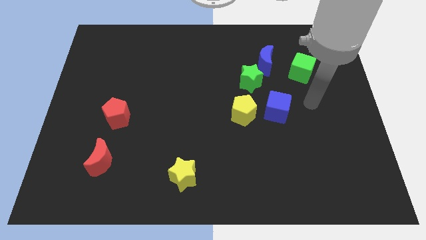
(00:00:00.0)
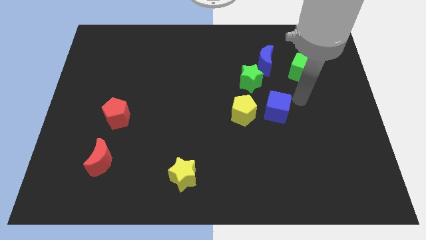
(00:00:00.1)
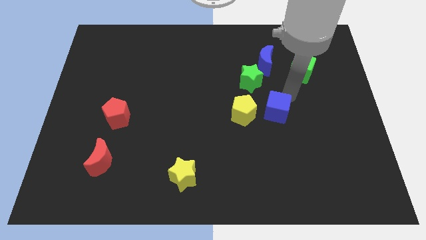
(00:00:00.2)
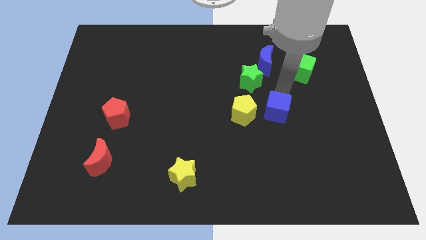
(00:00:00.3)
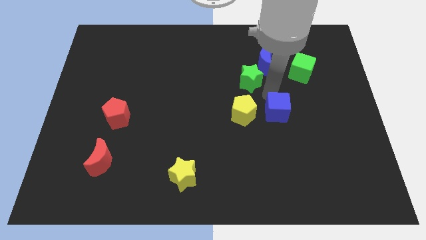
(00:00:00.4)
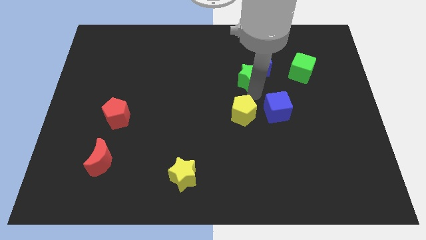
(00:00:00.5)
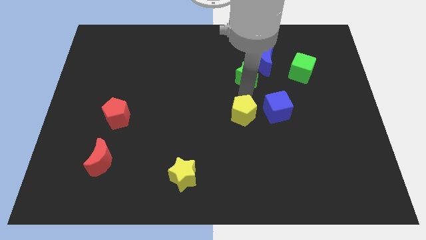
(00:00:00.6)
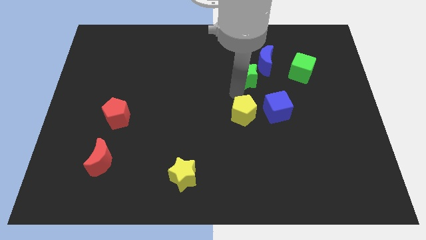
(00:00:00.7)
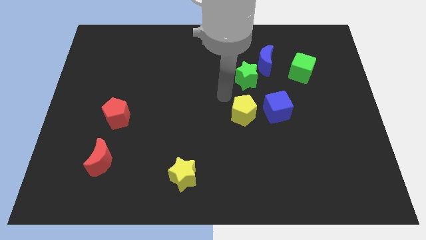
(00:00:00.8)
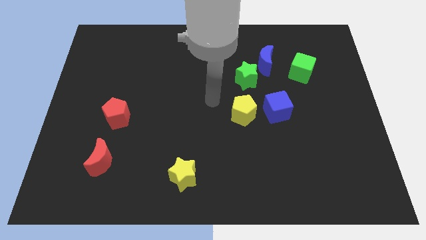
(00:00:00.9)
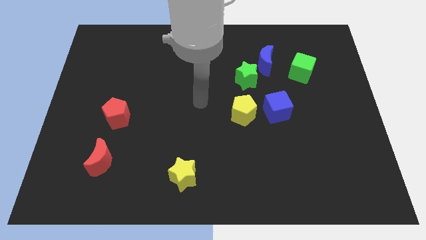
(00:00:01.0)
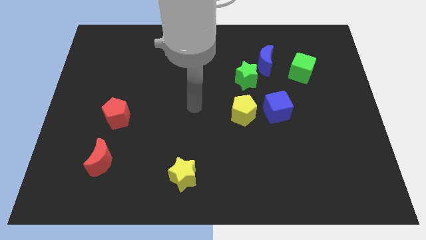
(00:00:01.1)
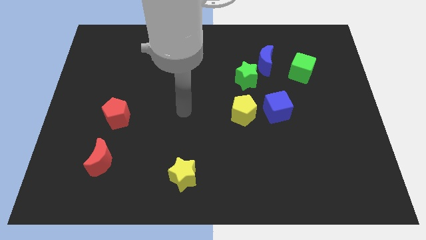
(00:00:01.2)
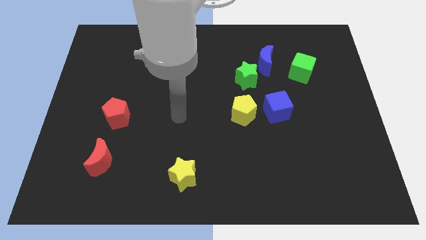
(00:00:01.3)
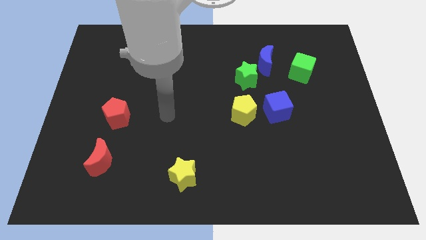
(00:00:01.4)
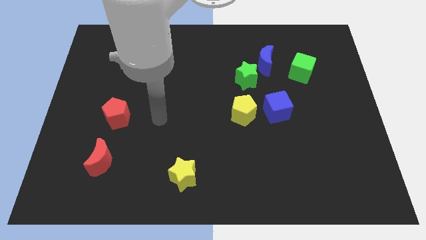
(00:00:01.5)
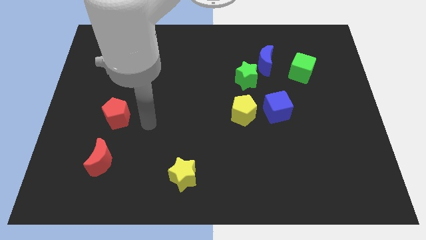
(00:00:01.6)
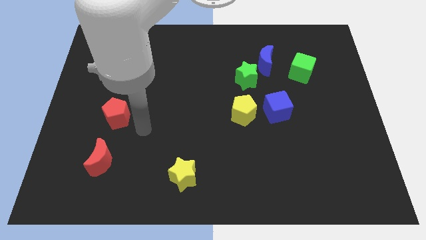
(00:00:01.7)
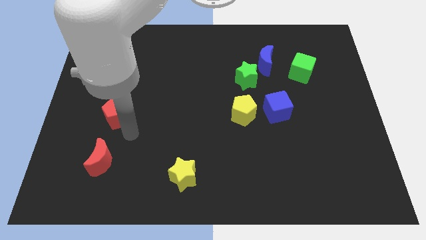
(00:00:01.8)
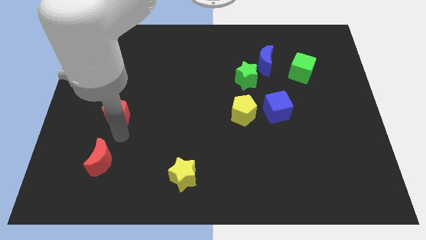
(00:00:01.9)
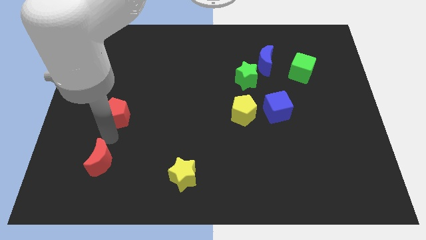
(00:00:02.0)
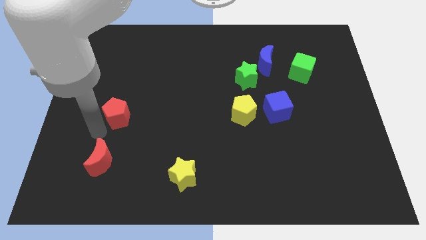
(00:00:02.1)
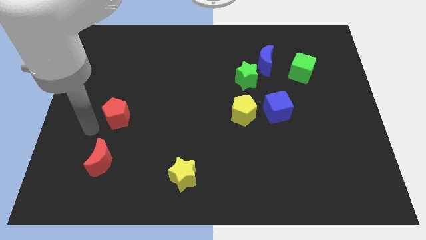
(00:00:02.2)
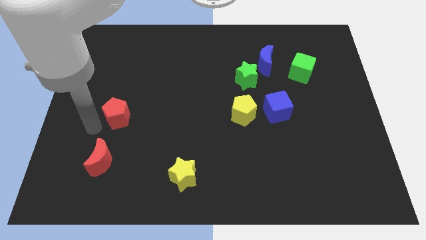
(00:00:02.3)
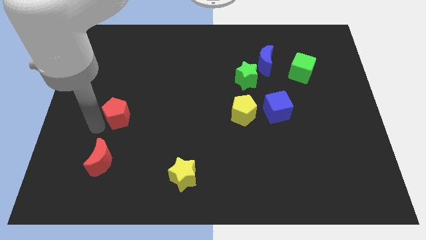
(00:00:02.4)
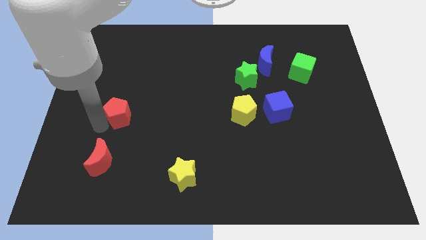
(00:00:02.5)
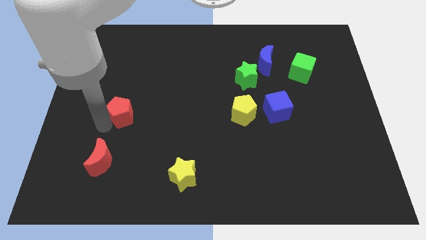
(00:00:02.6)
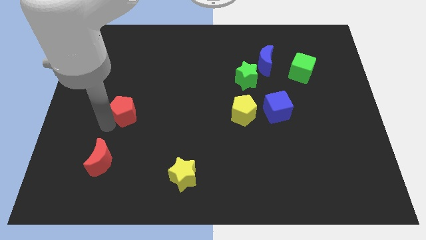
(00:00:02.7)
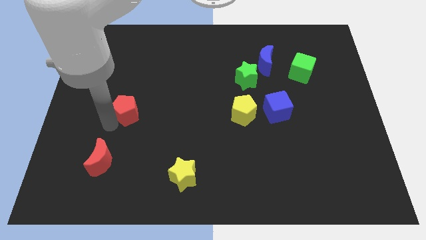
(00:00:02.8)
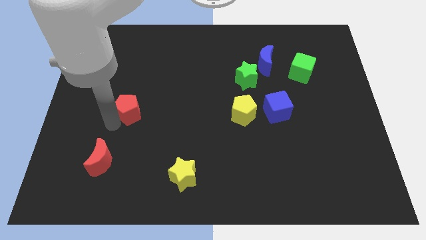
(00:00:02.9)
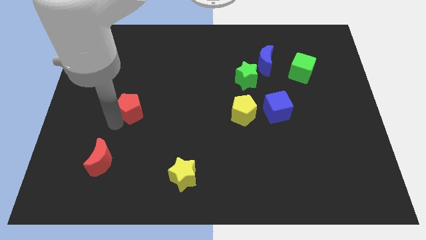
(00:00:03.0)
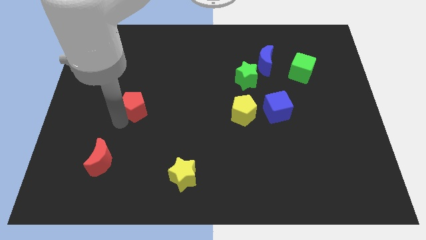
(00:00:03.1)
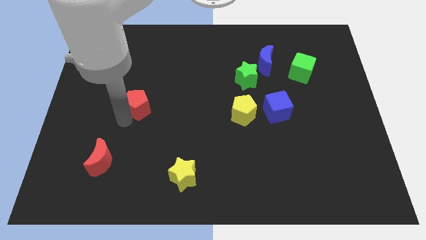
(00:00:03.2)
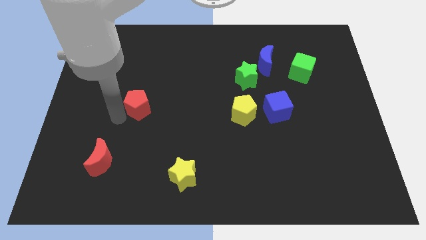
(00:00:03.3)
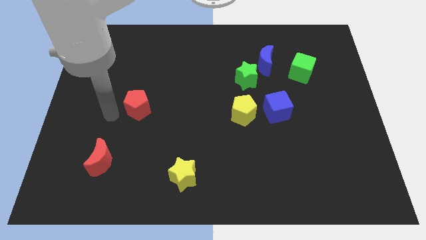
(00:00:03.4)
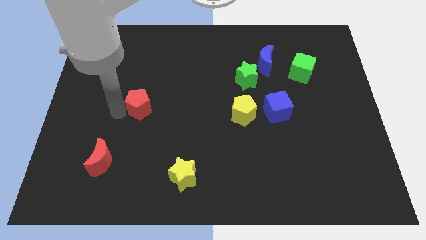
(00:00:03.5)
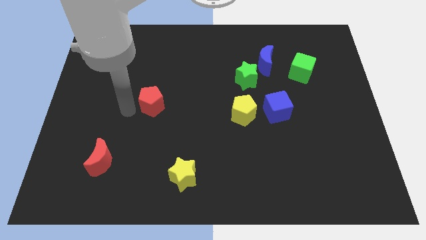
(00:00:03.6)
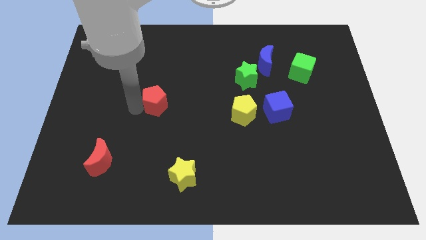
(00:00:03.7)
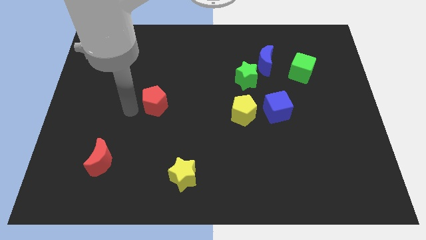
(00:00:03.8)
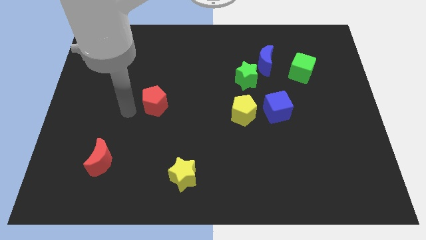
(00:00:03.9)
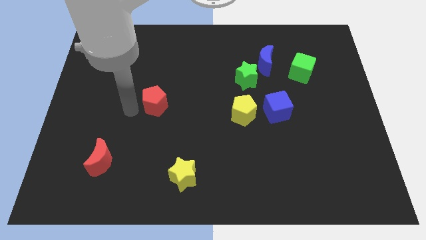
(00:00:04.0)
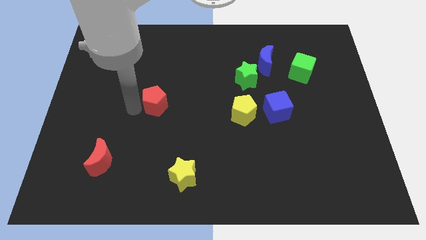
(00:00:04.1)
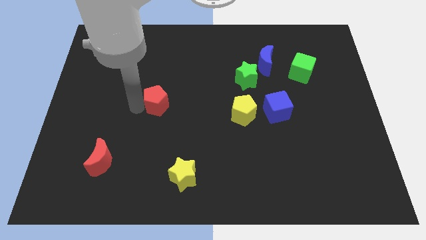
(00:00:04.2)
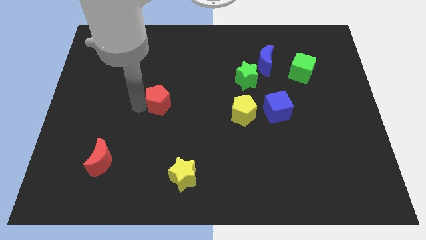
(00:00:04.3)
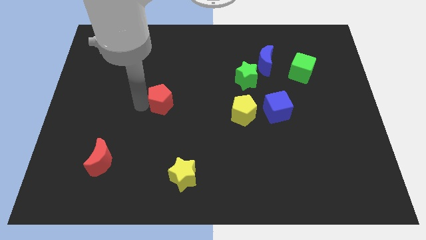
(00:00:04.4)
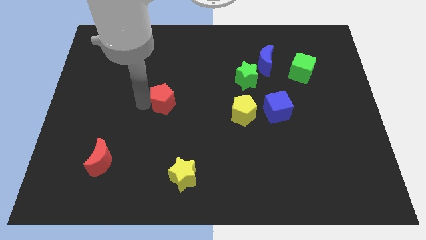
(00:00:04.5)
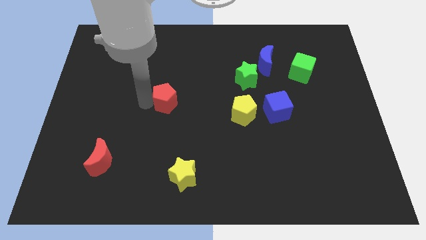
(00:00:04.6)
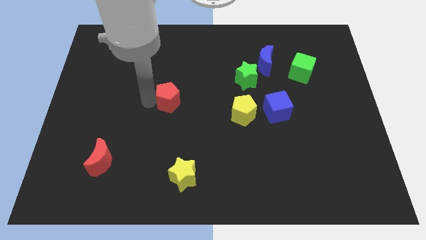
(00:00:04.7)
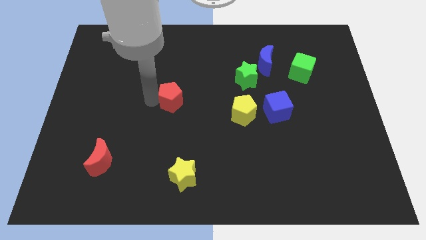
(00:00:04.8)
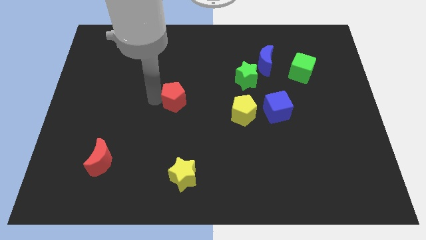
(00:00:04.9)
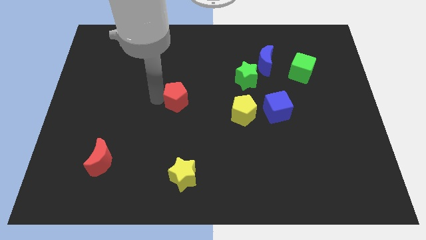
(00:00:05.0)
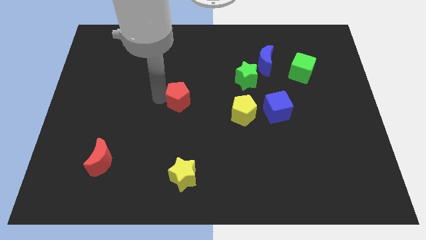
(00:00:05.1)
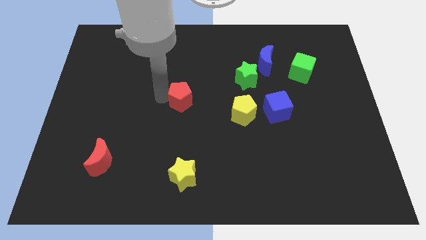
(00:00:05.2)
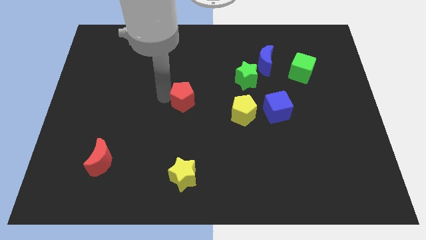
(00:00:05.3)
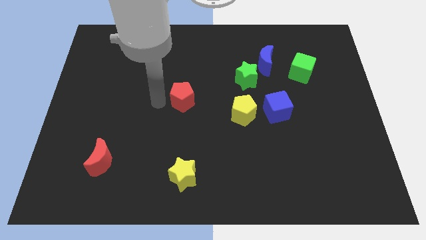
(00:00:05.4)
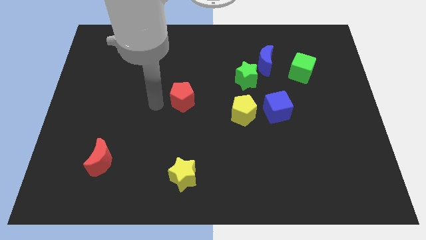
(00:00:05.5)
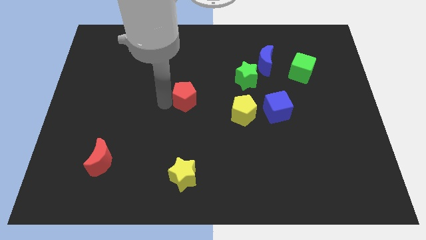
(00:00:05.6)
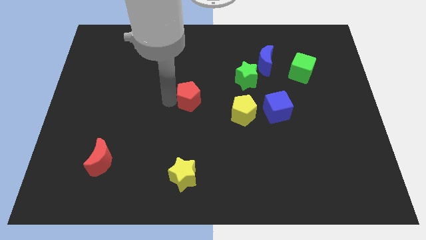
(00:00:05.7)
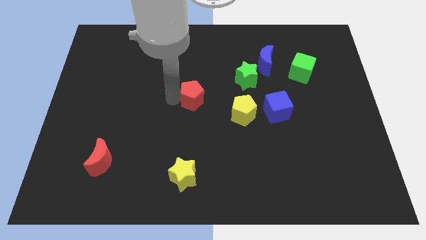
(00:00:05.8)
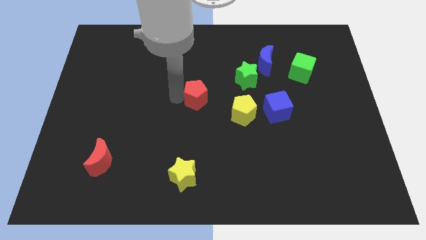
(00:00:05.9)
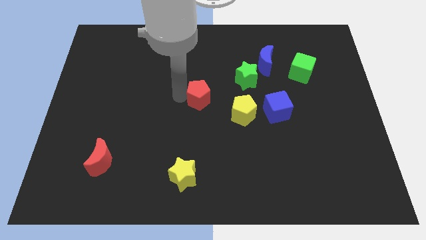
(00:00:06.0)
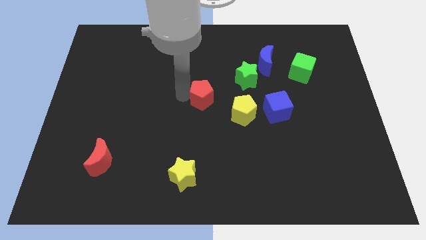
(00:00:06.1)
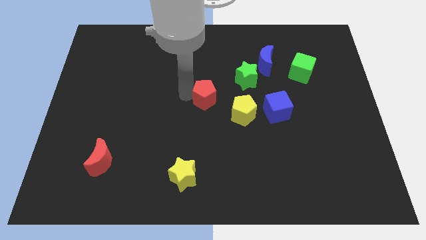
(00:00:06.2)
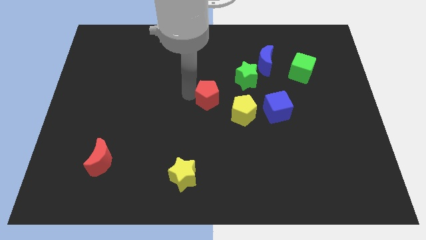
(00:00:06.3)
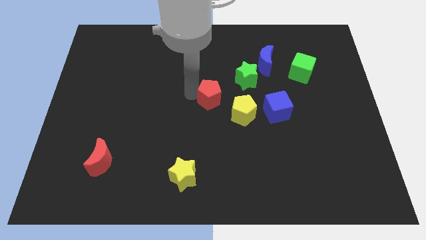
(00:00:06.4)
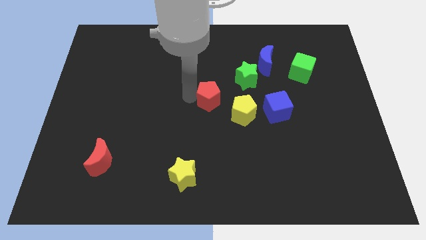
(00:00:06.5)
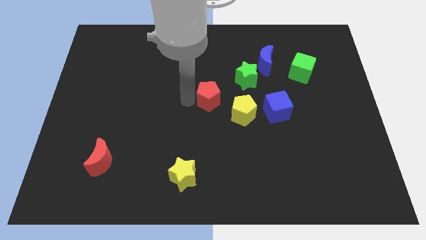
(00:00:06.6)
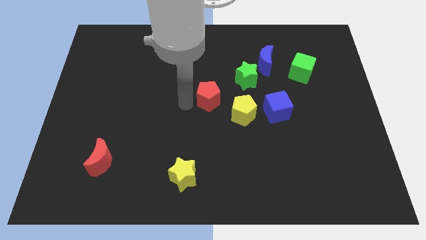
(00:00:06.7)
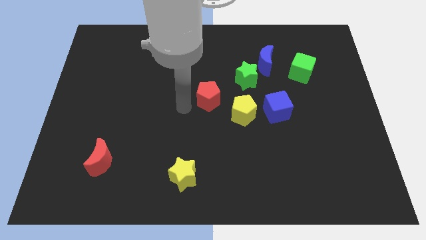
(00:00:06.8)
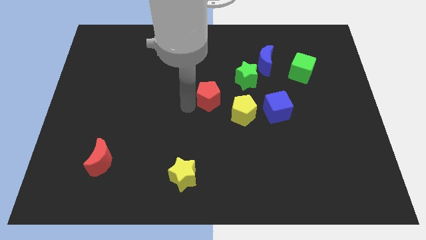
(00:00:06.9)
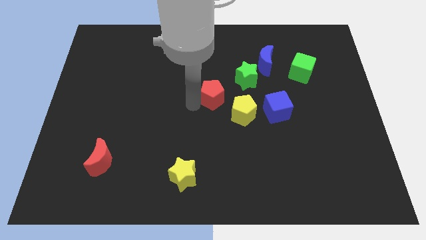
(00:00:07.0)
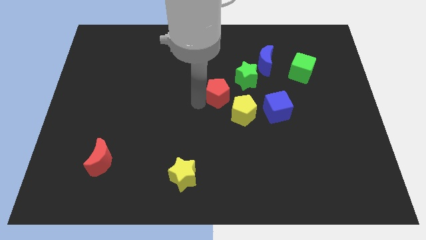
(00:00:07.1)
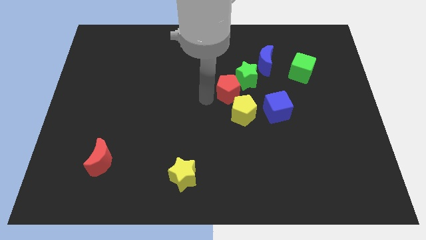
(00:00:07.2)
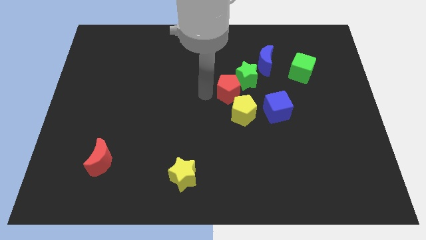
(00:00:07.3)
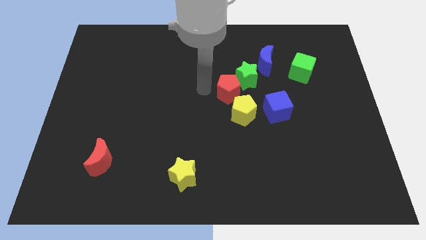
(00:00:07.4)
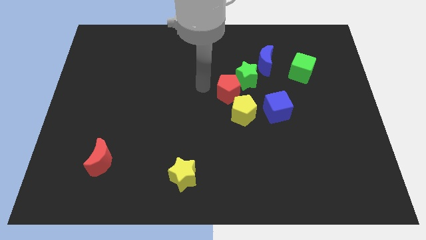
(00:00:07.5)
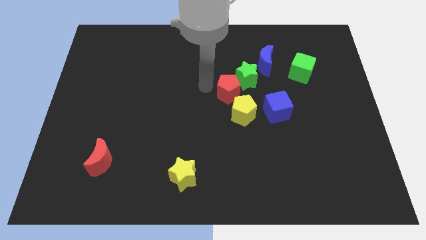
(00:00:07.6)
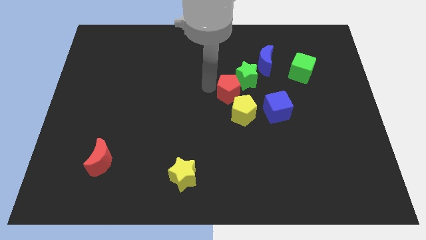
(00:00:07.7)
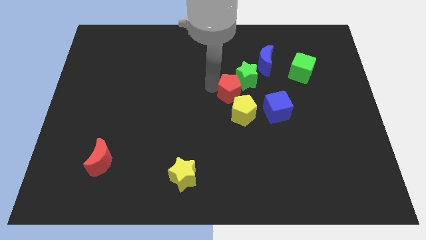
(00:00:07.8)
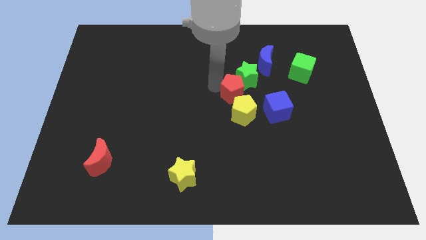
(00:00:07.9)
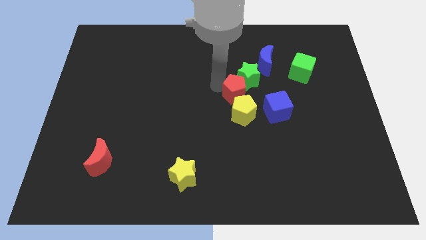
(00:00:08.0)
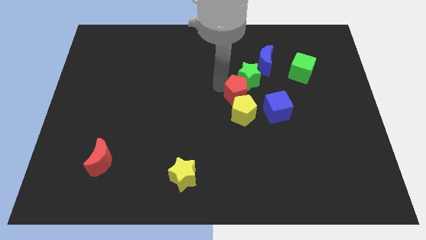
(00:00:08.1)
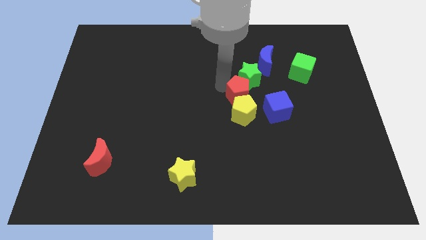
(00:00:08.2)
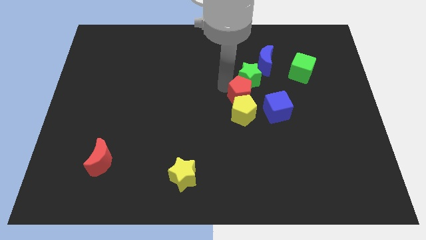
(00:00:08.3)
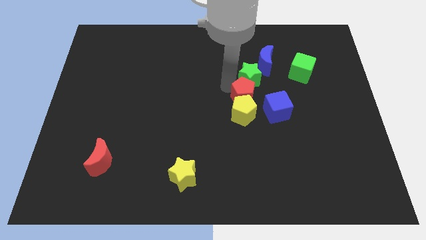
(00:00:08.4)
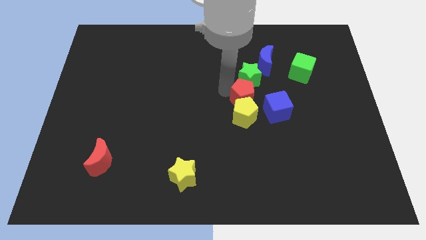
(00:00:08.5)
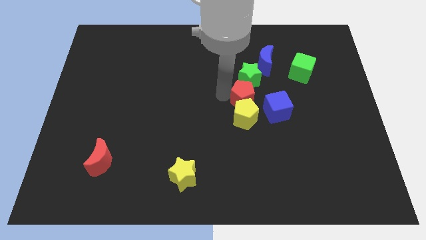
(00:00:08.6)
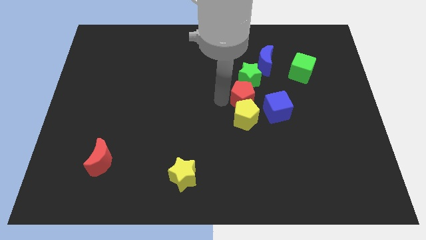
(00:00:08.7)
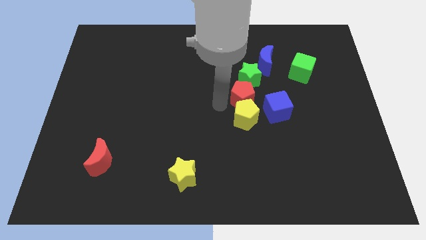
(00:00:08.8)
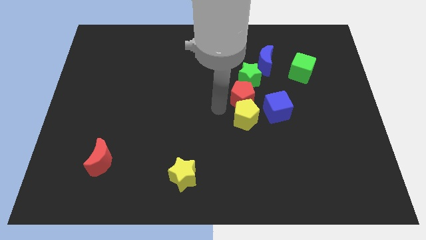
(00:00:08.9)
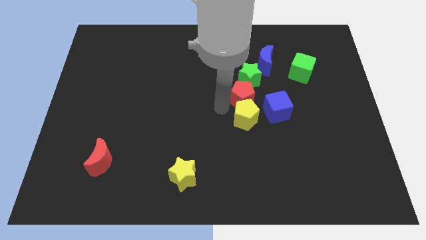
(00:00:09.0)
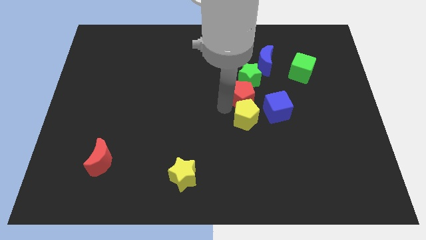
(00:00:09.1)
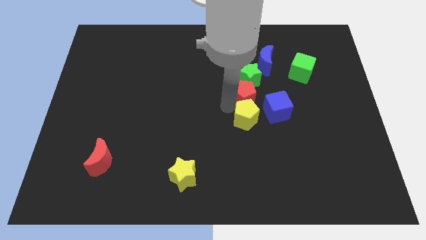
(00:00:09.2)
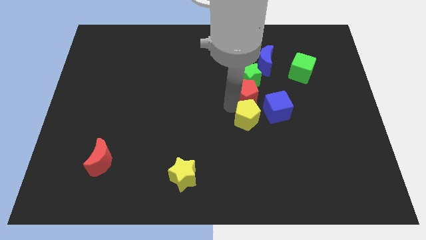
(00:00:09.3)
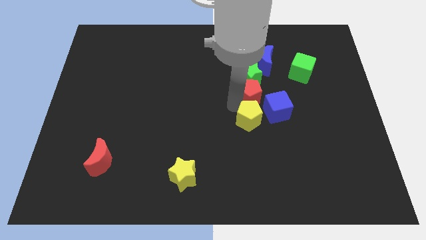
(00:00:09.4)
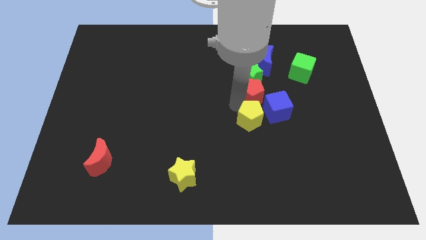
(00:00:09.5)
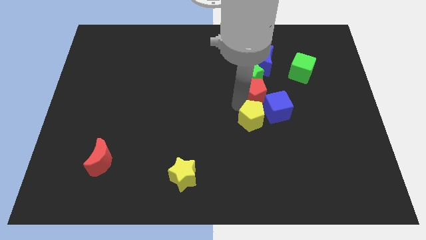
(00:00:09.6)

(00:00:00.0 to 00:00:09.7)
put the red pentagon to the top side of the blue cube
